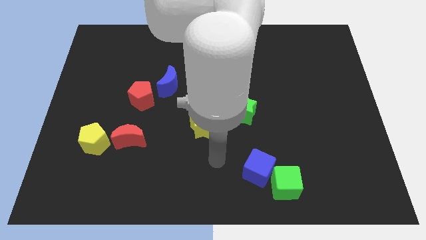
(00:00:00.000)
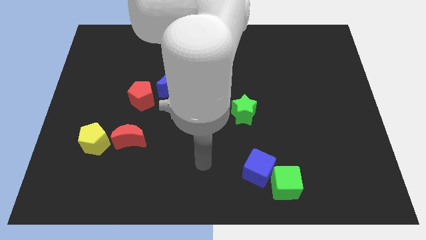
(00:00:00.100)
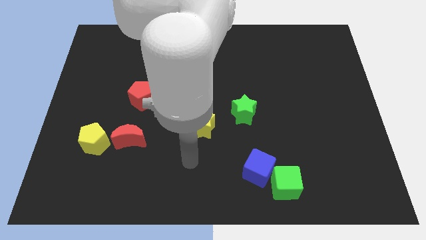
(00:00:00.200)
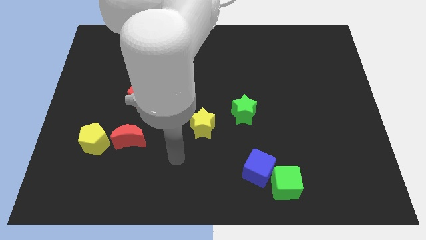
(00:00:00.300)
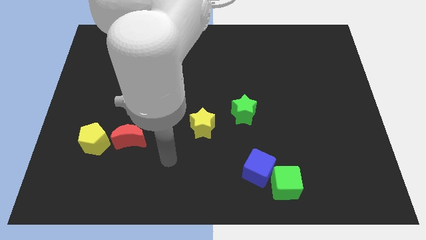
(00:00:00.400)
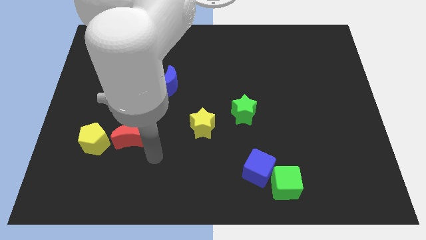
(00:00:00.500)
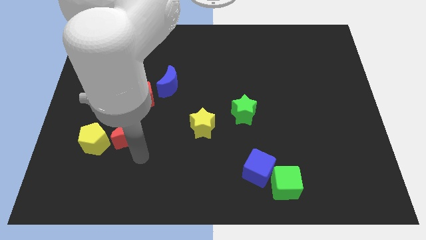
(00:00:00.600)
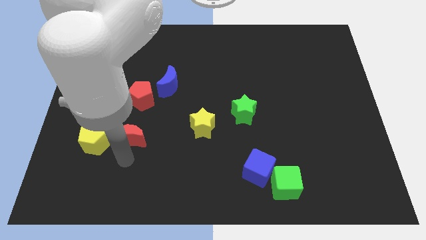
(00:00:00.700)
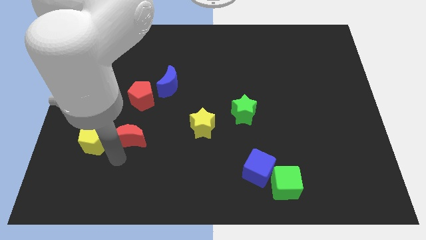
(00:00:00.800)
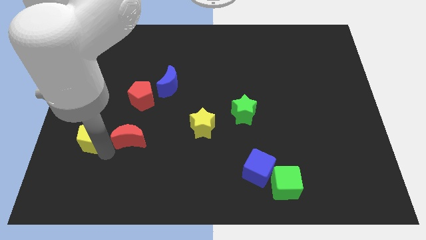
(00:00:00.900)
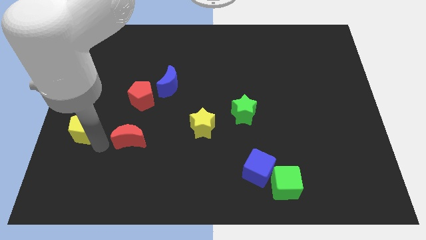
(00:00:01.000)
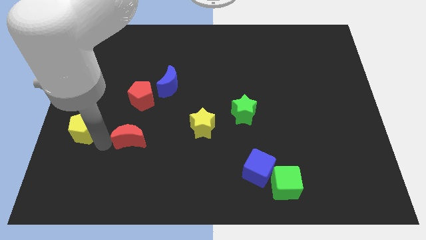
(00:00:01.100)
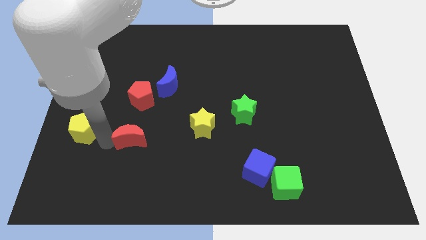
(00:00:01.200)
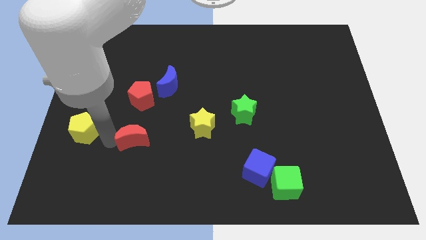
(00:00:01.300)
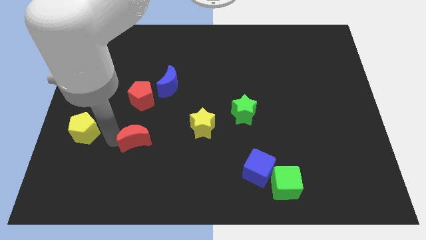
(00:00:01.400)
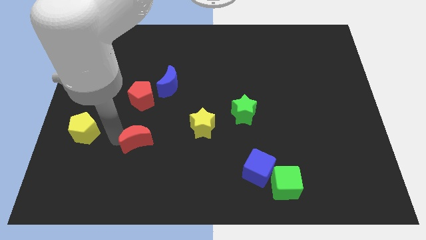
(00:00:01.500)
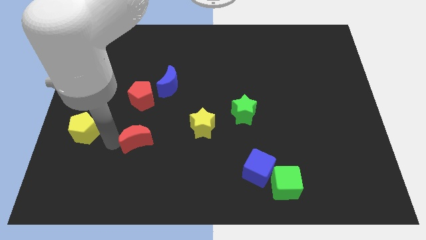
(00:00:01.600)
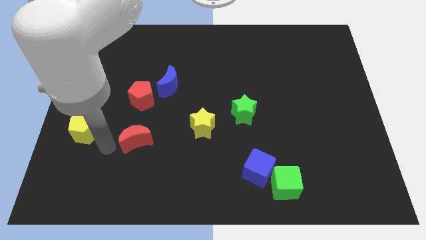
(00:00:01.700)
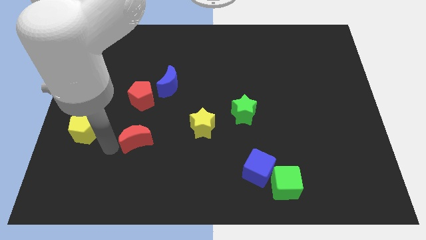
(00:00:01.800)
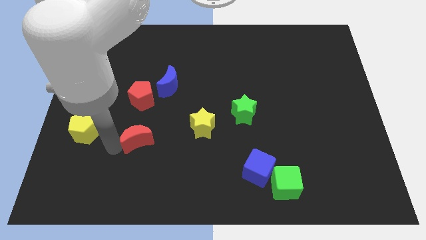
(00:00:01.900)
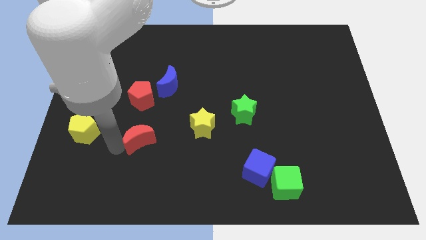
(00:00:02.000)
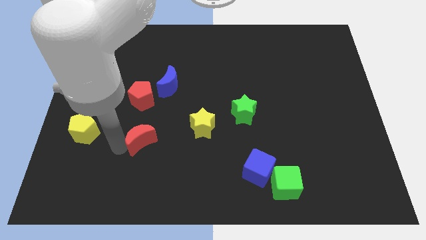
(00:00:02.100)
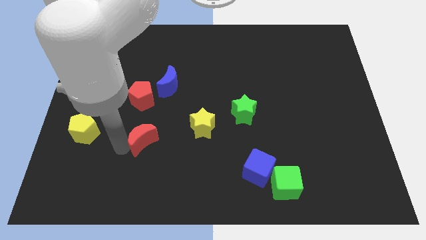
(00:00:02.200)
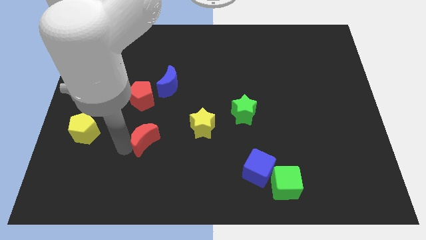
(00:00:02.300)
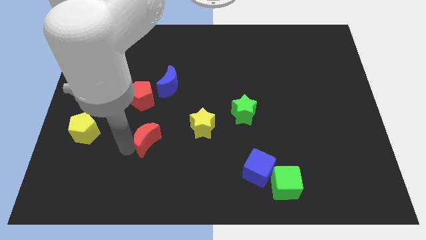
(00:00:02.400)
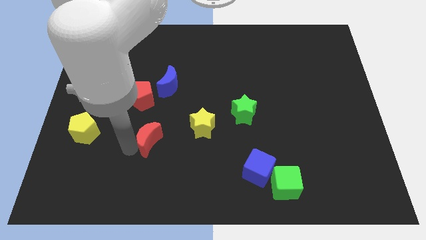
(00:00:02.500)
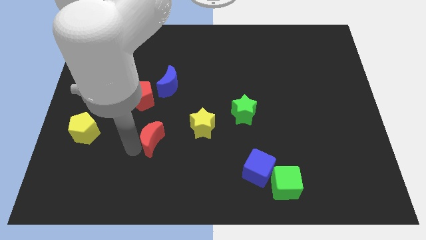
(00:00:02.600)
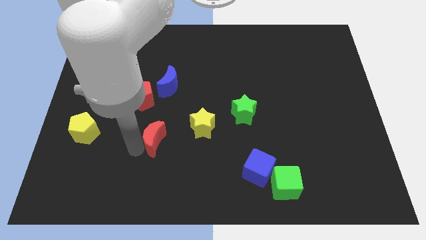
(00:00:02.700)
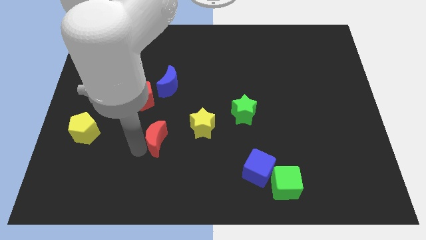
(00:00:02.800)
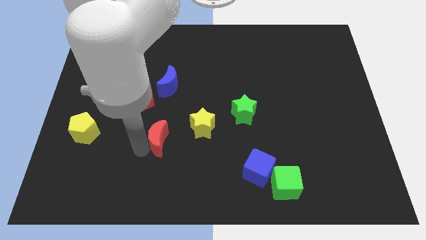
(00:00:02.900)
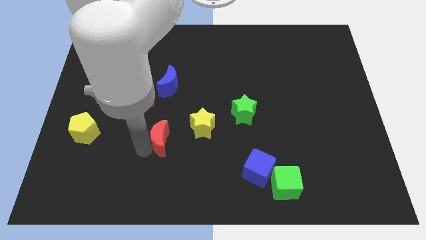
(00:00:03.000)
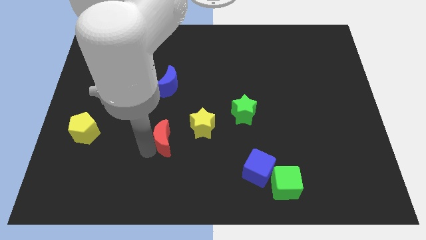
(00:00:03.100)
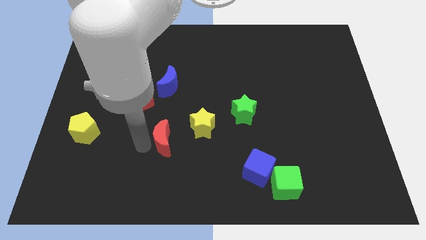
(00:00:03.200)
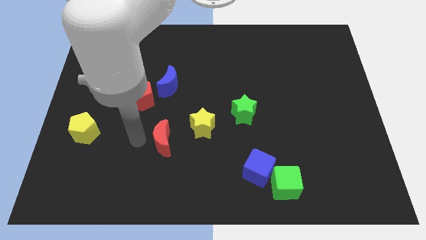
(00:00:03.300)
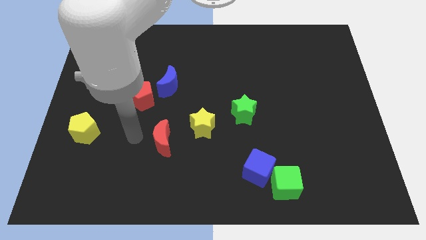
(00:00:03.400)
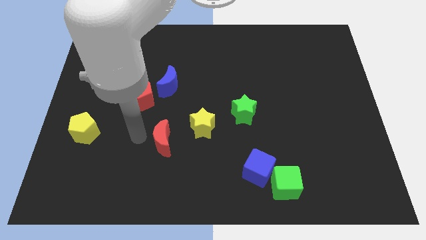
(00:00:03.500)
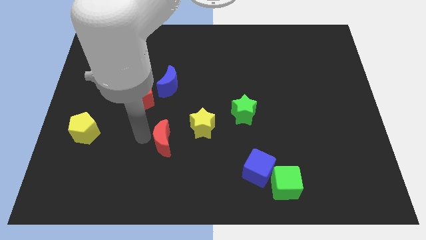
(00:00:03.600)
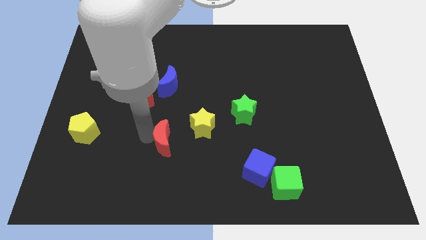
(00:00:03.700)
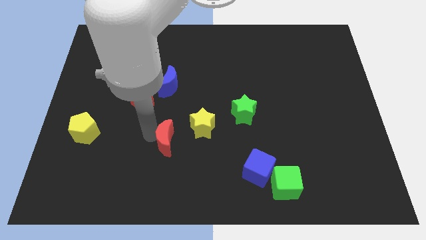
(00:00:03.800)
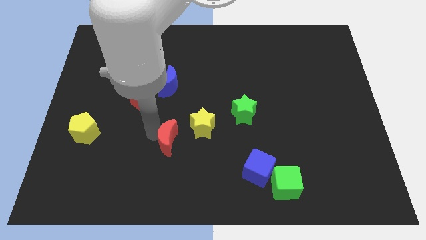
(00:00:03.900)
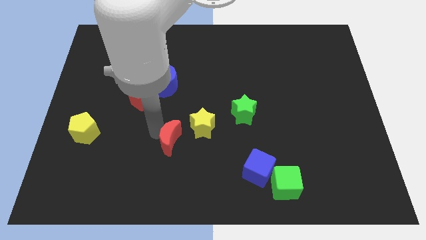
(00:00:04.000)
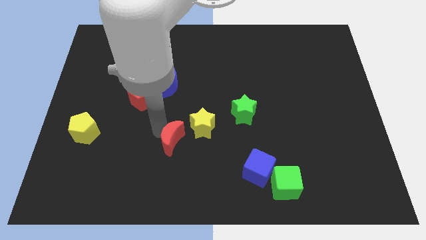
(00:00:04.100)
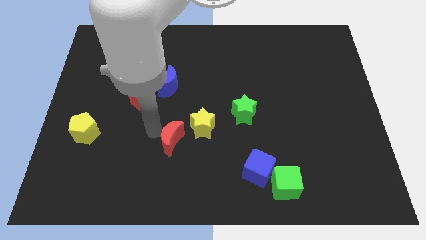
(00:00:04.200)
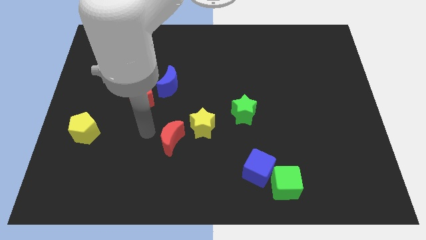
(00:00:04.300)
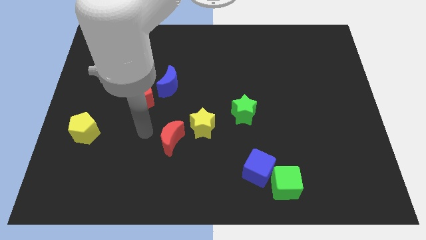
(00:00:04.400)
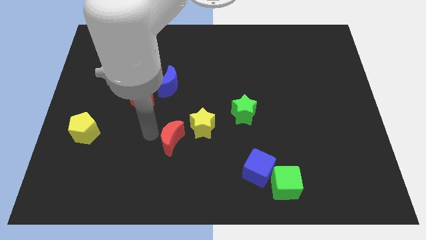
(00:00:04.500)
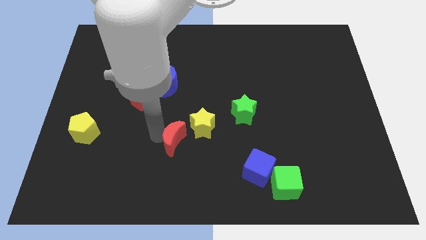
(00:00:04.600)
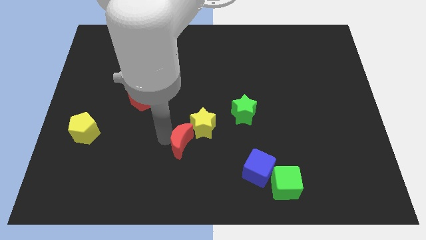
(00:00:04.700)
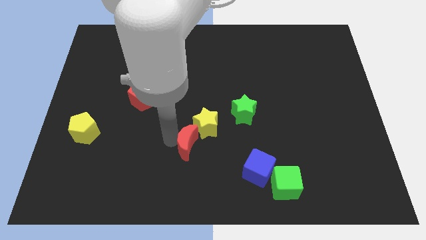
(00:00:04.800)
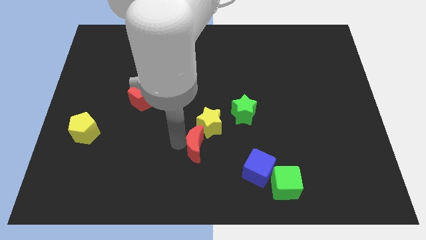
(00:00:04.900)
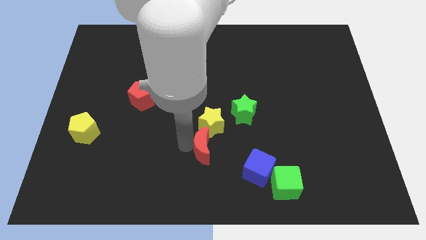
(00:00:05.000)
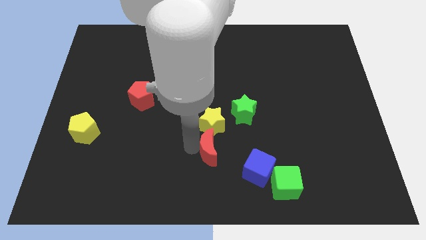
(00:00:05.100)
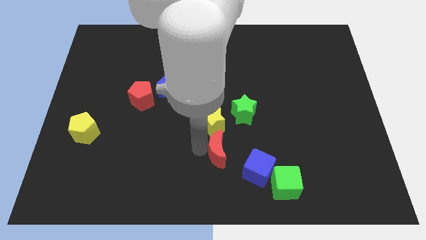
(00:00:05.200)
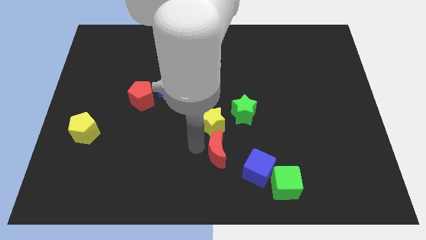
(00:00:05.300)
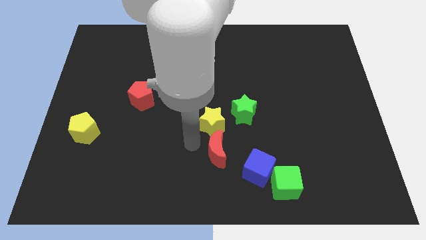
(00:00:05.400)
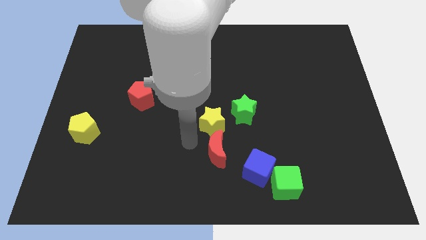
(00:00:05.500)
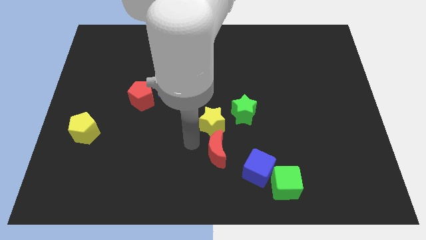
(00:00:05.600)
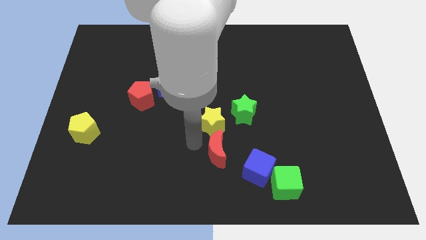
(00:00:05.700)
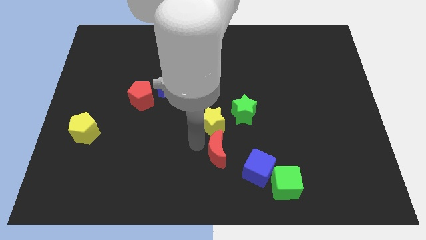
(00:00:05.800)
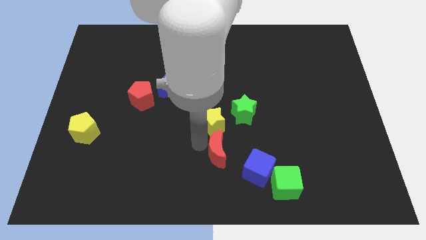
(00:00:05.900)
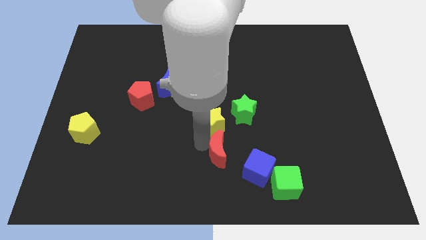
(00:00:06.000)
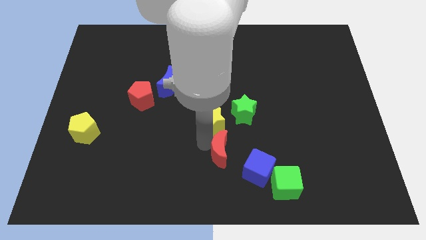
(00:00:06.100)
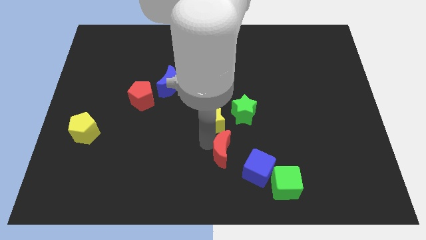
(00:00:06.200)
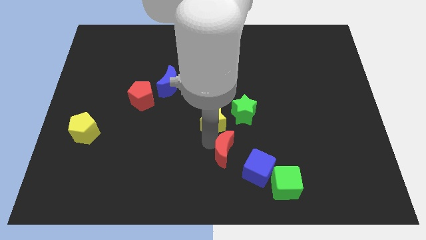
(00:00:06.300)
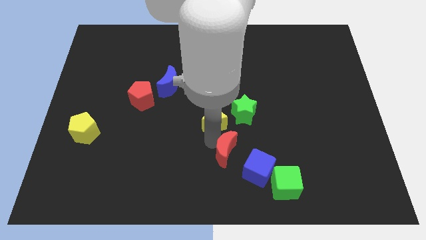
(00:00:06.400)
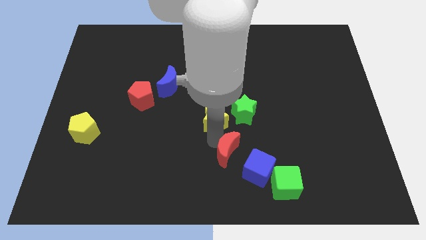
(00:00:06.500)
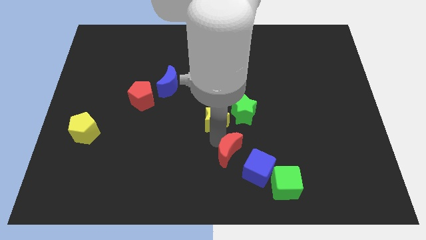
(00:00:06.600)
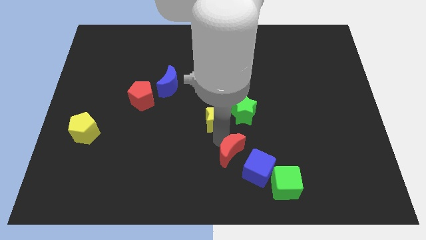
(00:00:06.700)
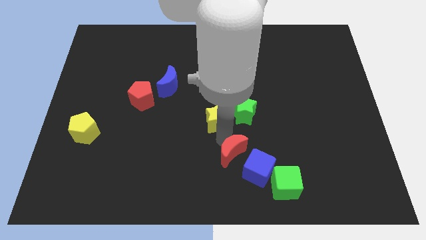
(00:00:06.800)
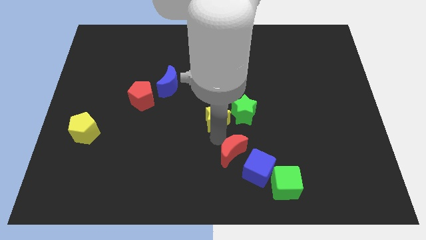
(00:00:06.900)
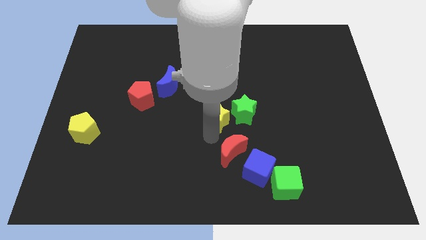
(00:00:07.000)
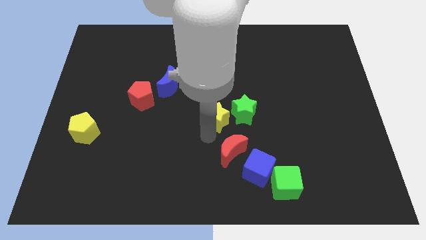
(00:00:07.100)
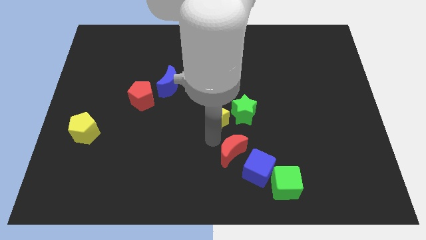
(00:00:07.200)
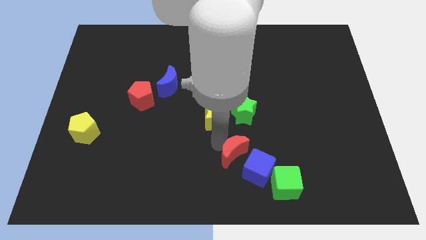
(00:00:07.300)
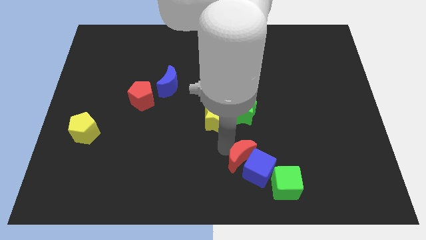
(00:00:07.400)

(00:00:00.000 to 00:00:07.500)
push the red moon to the blue cube
